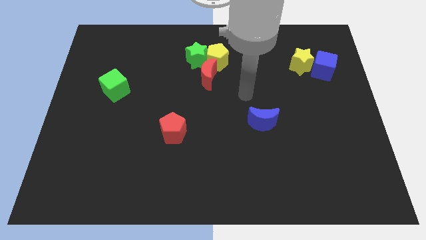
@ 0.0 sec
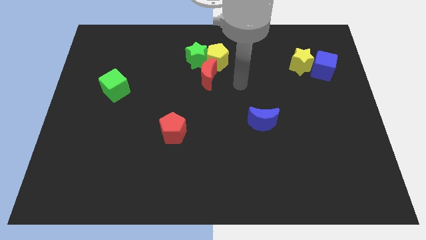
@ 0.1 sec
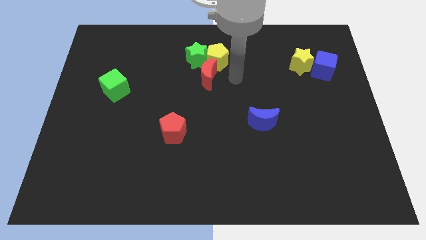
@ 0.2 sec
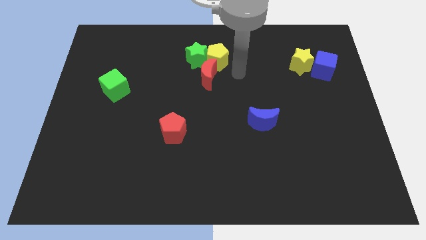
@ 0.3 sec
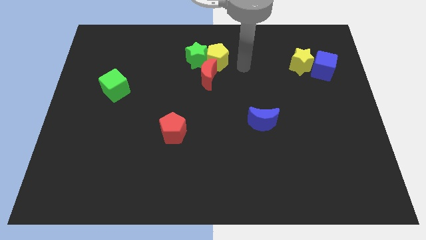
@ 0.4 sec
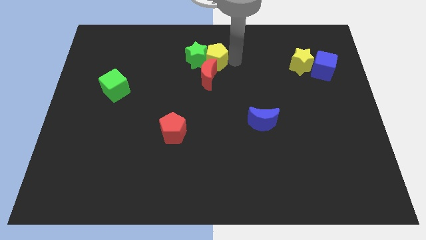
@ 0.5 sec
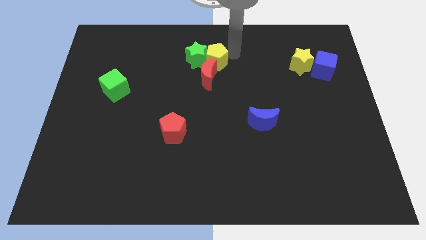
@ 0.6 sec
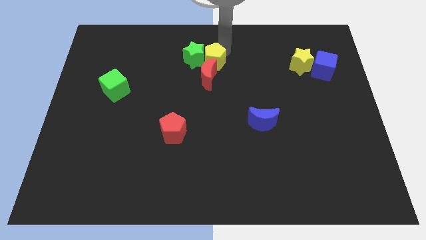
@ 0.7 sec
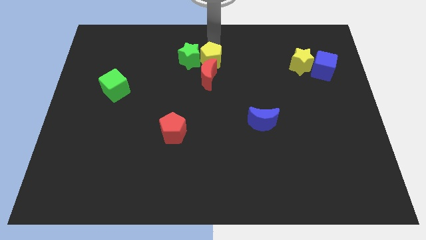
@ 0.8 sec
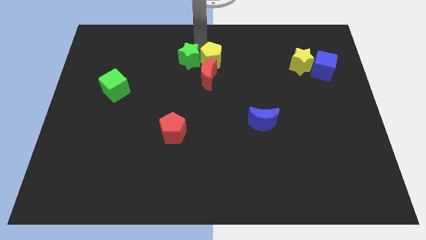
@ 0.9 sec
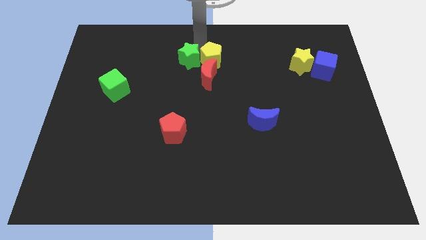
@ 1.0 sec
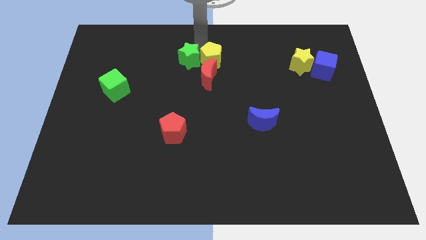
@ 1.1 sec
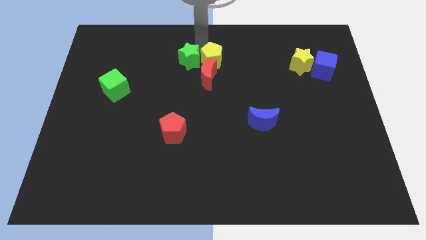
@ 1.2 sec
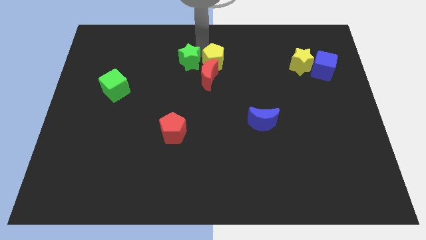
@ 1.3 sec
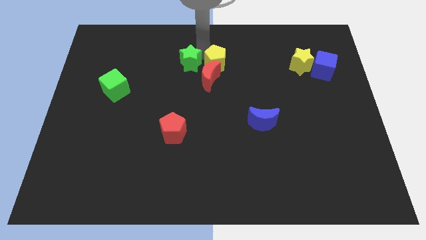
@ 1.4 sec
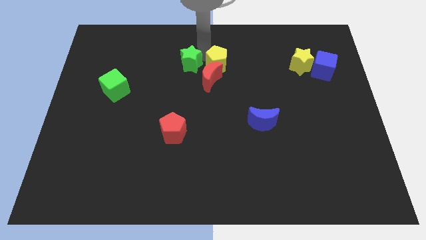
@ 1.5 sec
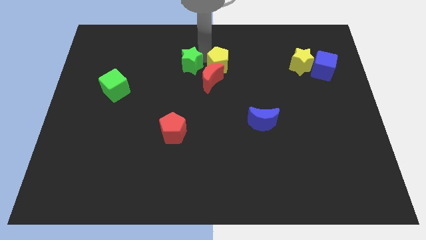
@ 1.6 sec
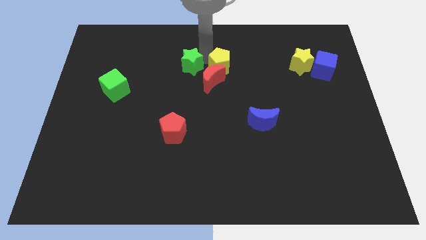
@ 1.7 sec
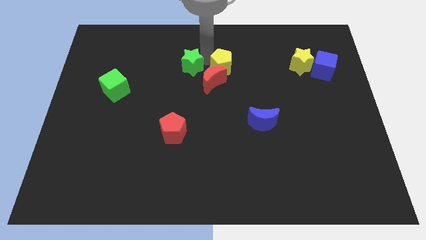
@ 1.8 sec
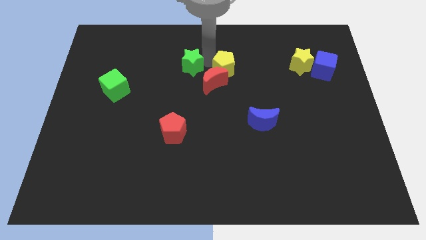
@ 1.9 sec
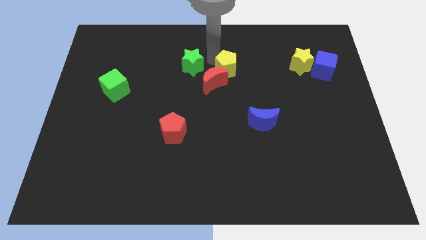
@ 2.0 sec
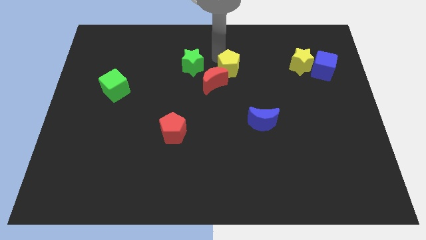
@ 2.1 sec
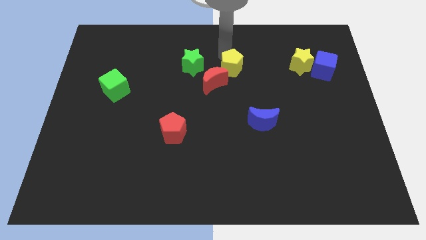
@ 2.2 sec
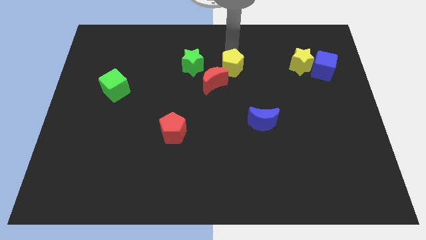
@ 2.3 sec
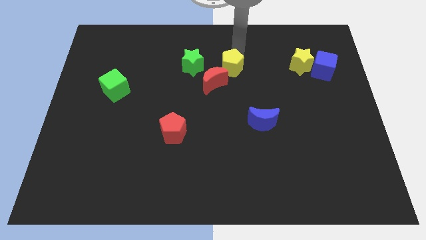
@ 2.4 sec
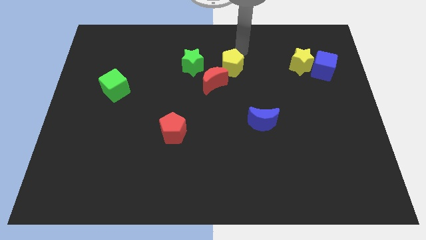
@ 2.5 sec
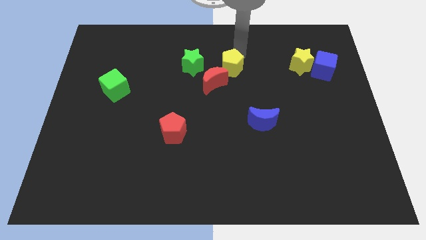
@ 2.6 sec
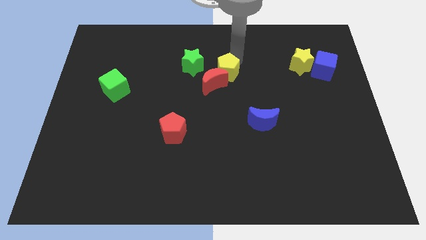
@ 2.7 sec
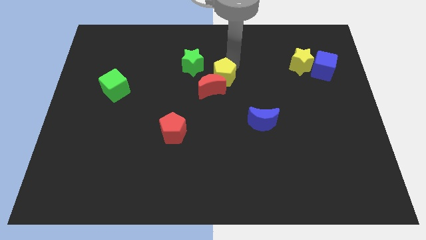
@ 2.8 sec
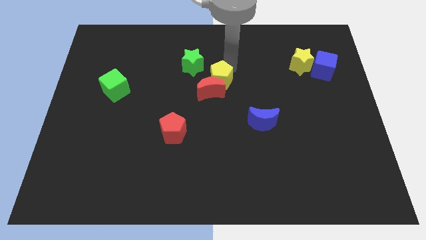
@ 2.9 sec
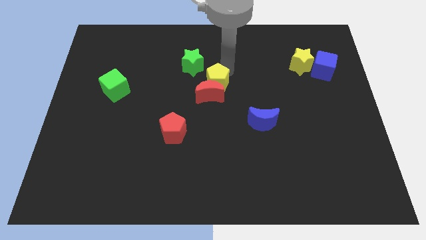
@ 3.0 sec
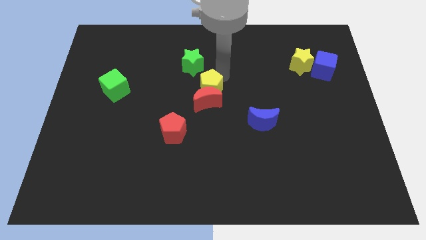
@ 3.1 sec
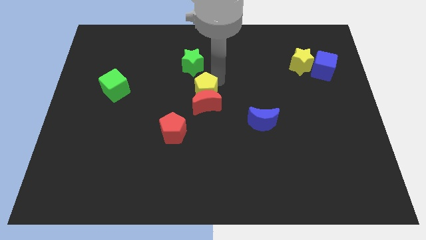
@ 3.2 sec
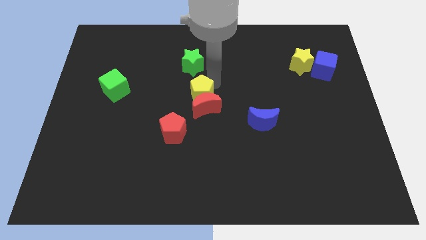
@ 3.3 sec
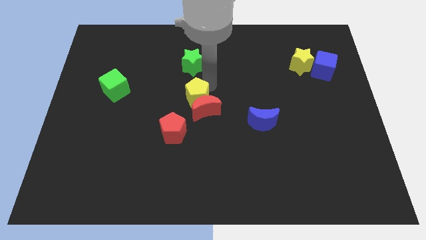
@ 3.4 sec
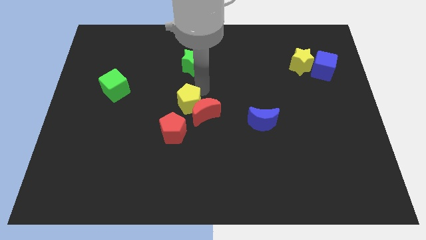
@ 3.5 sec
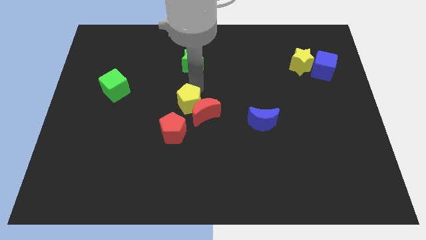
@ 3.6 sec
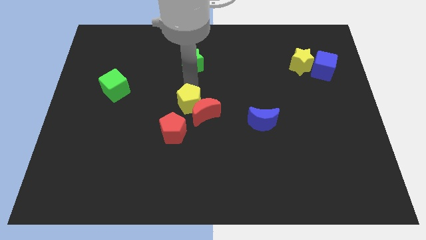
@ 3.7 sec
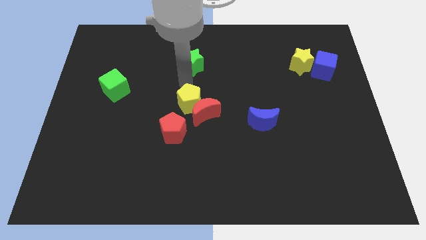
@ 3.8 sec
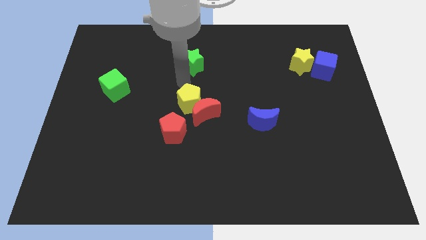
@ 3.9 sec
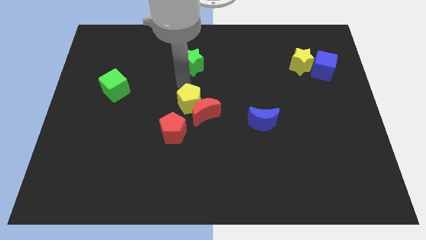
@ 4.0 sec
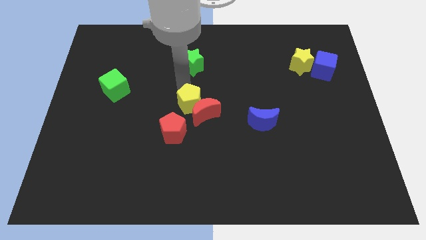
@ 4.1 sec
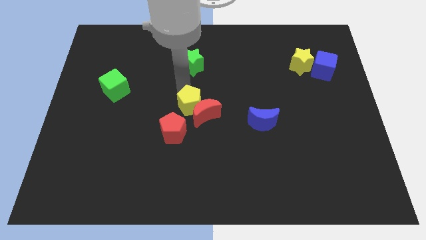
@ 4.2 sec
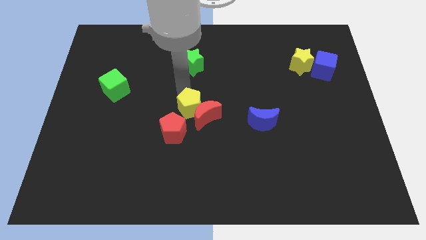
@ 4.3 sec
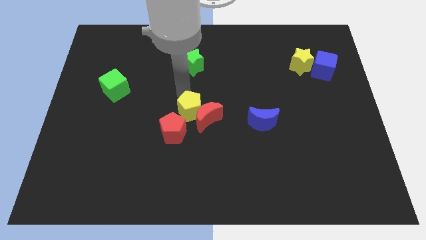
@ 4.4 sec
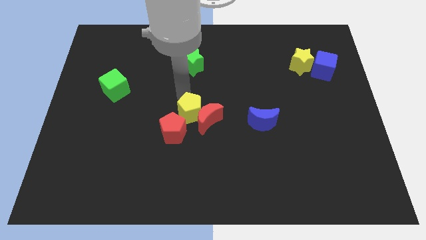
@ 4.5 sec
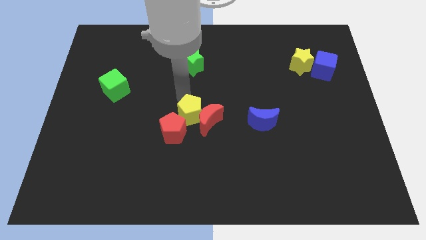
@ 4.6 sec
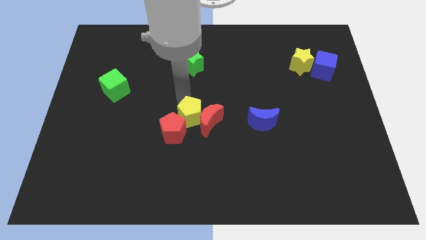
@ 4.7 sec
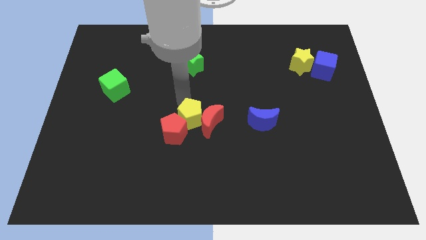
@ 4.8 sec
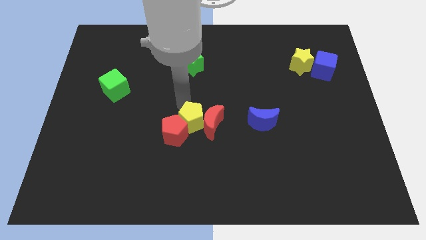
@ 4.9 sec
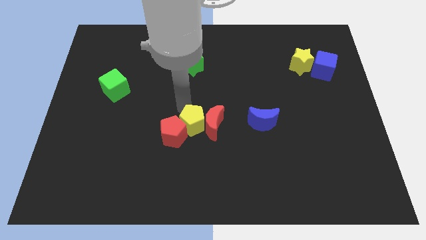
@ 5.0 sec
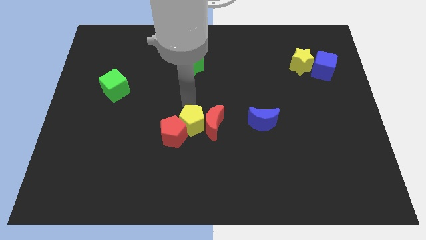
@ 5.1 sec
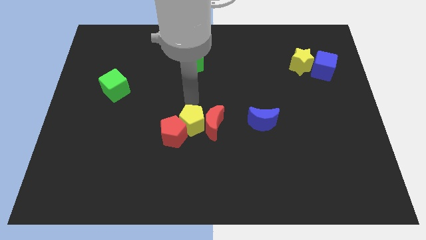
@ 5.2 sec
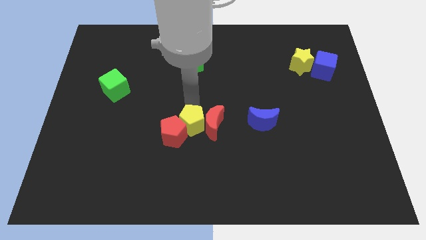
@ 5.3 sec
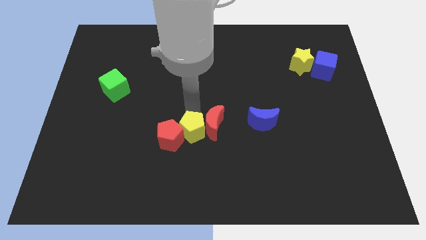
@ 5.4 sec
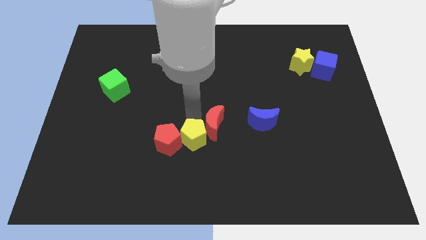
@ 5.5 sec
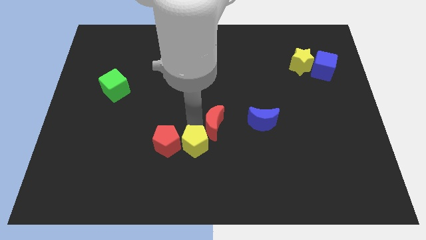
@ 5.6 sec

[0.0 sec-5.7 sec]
move the yellow pentagon diagonally down and to the right of the red pentagon

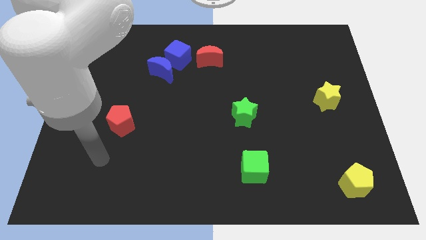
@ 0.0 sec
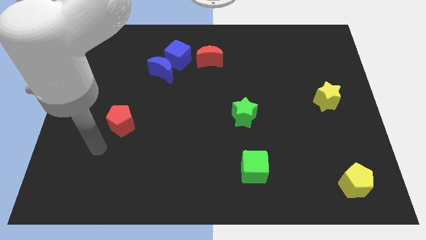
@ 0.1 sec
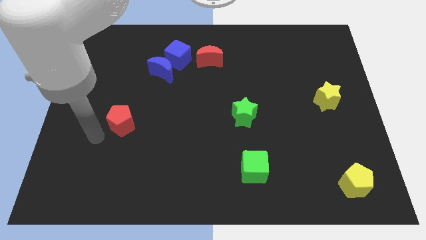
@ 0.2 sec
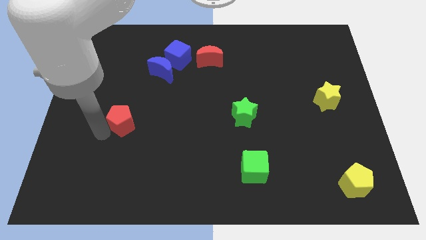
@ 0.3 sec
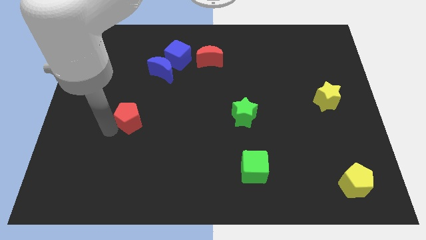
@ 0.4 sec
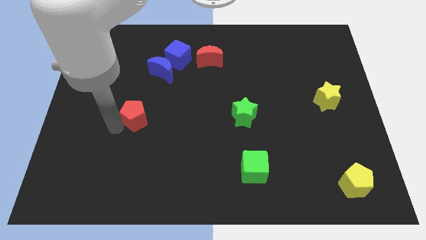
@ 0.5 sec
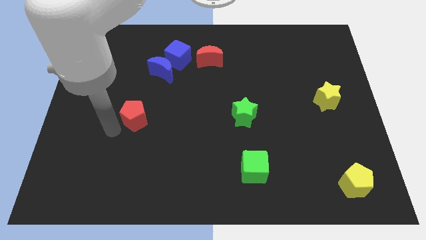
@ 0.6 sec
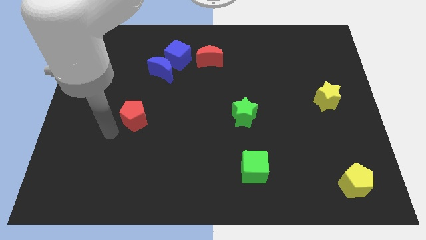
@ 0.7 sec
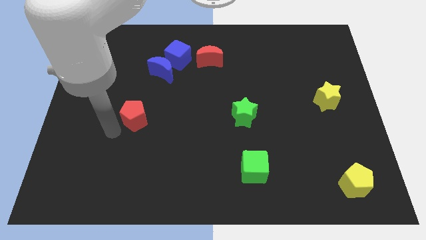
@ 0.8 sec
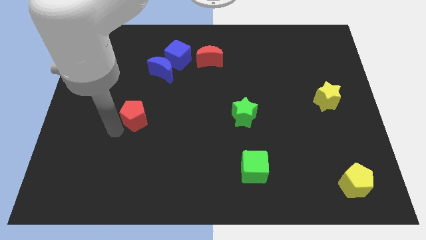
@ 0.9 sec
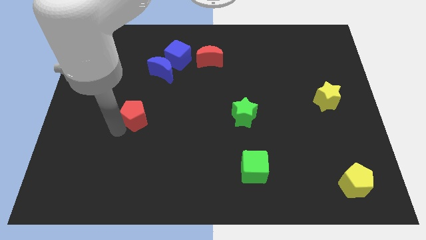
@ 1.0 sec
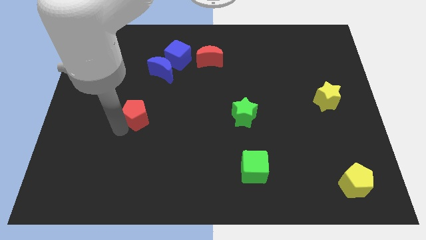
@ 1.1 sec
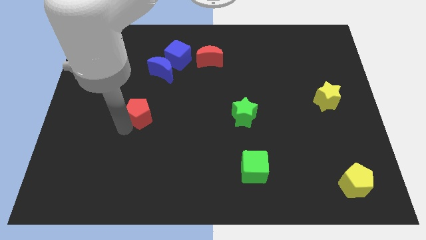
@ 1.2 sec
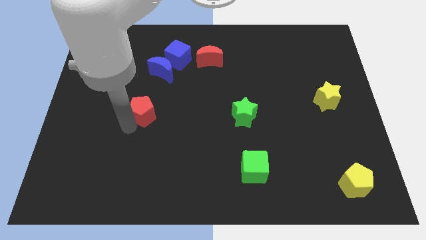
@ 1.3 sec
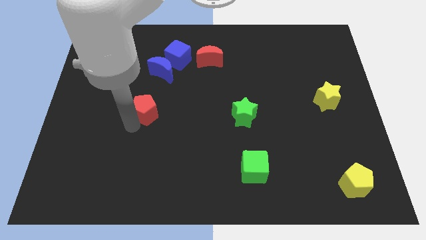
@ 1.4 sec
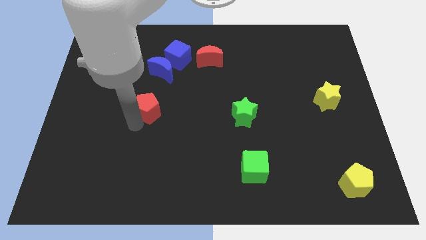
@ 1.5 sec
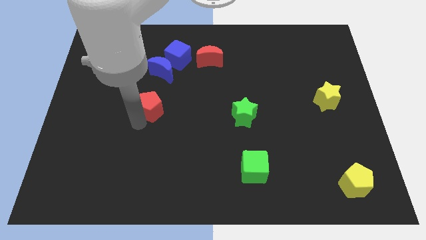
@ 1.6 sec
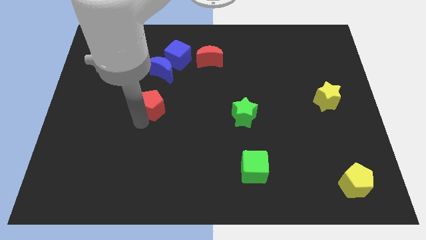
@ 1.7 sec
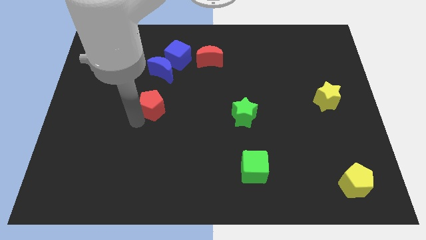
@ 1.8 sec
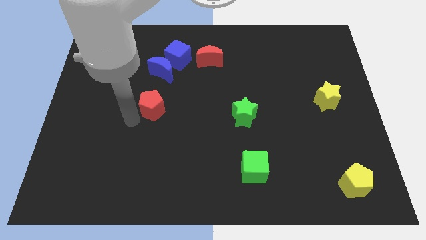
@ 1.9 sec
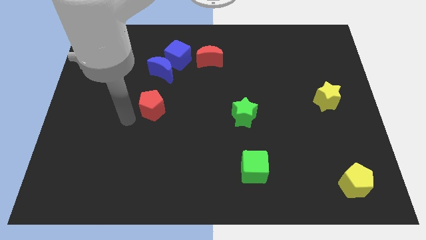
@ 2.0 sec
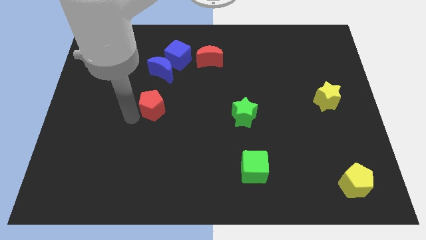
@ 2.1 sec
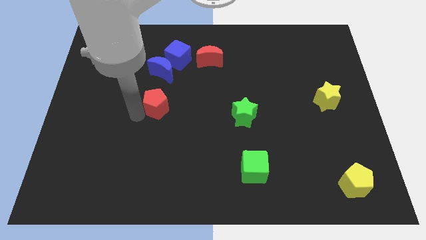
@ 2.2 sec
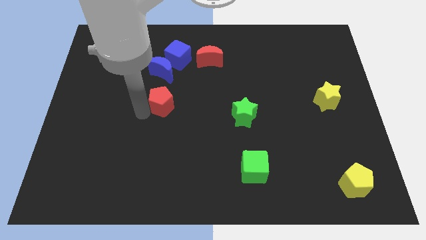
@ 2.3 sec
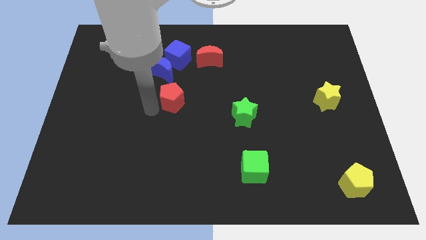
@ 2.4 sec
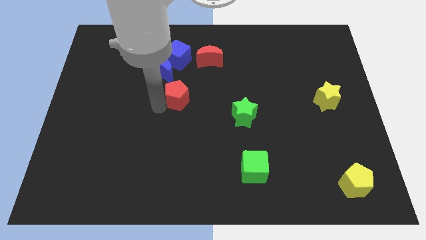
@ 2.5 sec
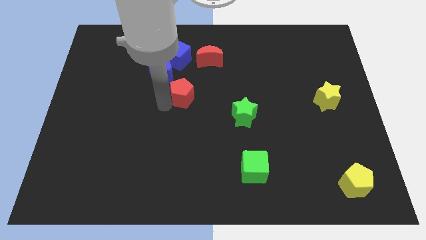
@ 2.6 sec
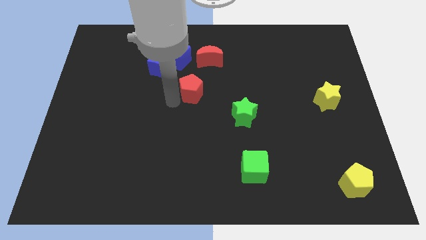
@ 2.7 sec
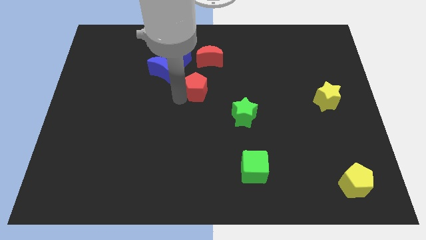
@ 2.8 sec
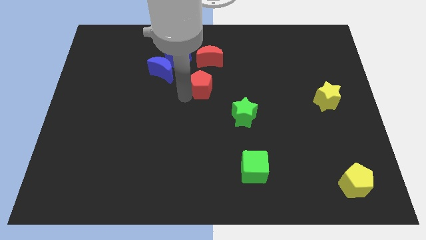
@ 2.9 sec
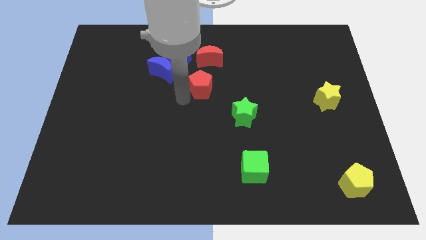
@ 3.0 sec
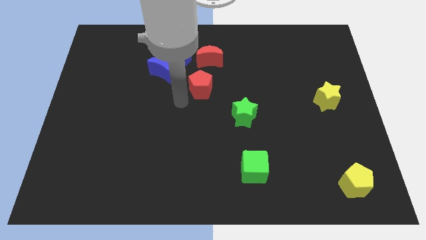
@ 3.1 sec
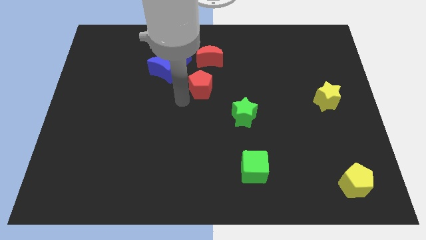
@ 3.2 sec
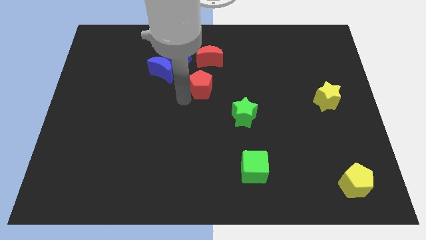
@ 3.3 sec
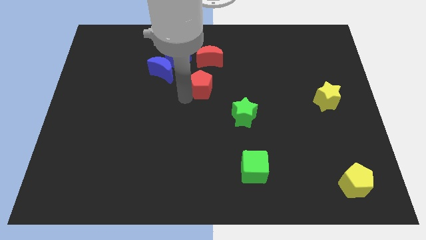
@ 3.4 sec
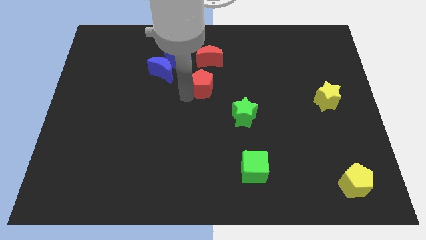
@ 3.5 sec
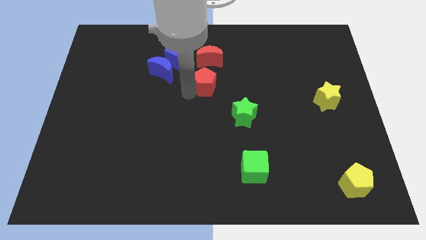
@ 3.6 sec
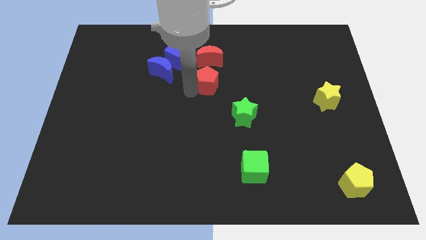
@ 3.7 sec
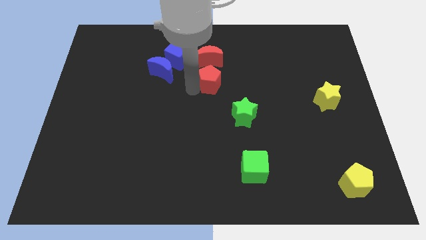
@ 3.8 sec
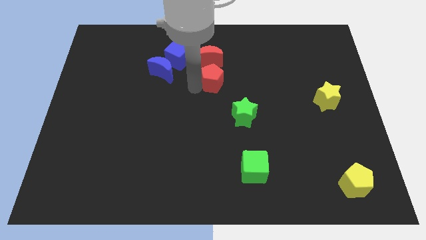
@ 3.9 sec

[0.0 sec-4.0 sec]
push the red pentagon diagonally down and to the right of the red moon
